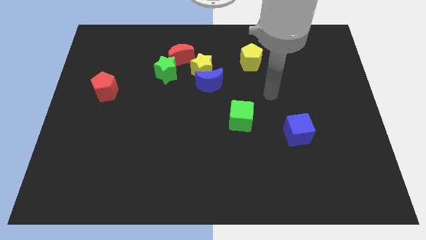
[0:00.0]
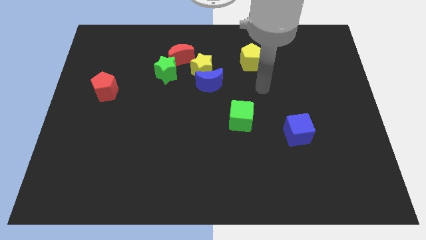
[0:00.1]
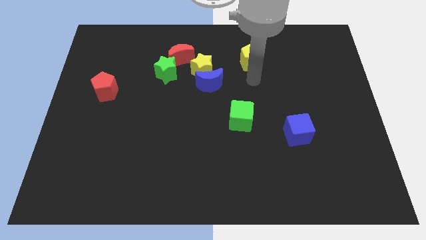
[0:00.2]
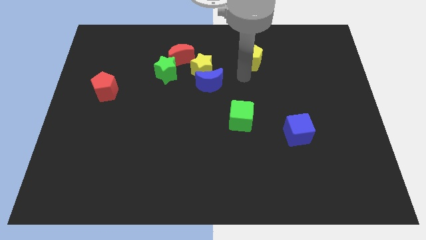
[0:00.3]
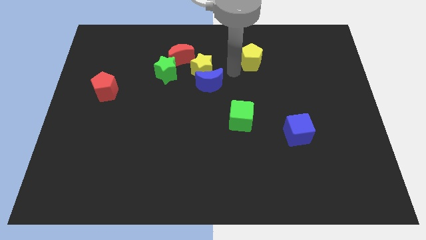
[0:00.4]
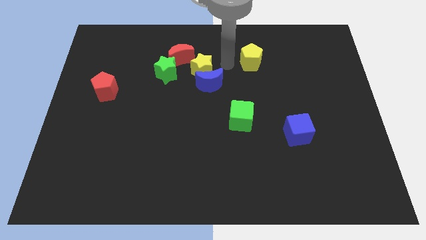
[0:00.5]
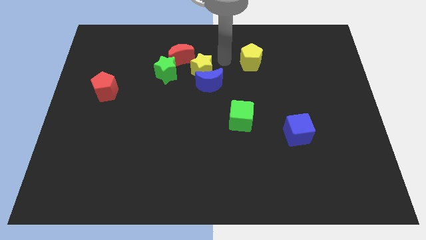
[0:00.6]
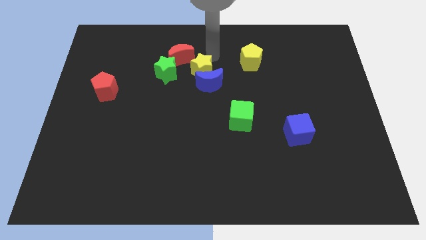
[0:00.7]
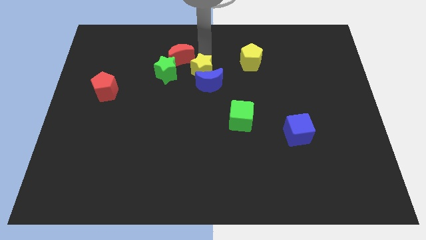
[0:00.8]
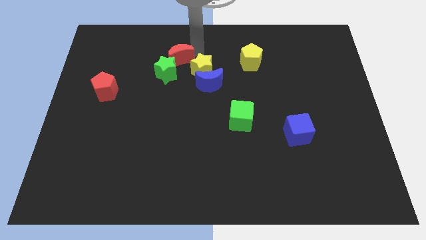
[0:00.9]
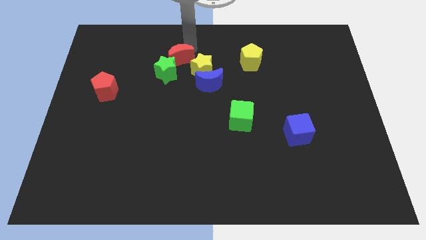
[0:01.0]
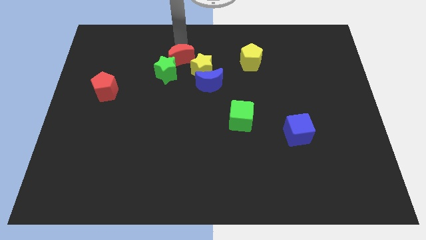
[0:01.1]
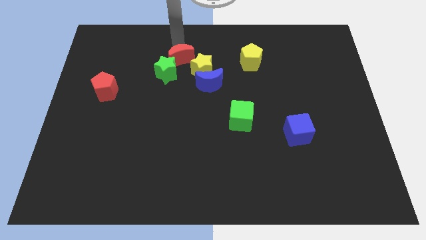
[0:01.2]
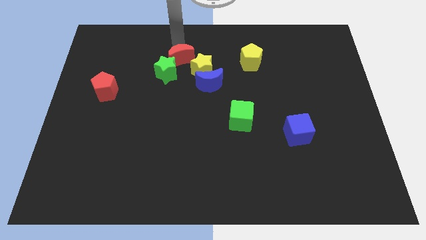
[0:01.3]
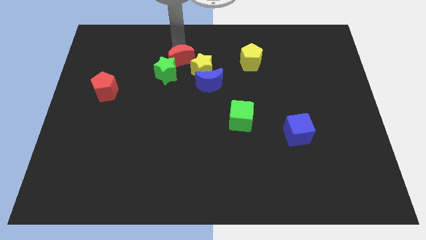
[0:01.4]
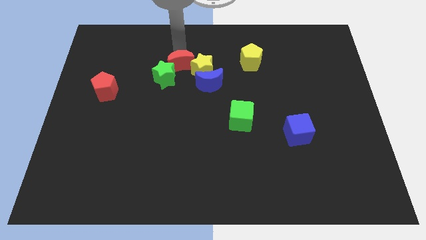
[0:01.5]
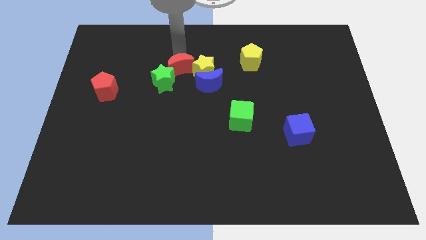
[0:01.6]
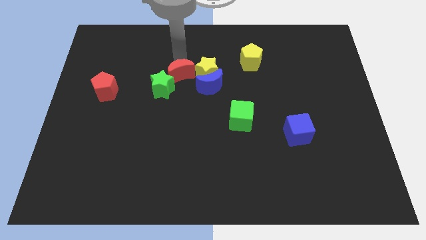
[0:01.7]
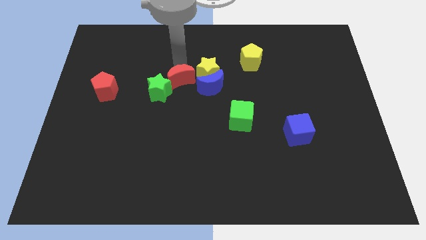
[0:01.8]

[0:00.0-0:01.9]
move the red moon a little downwards

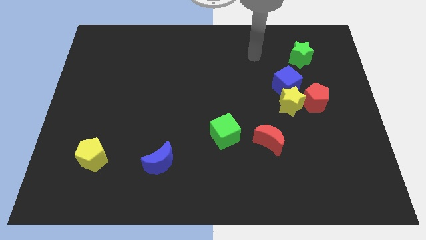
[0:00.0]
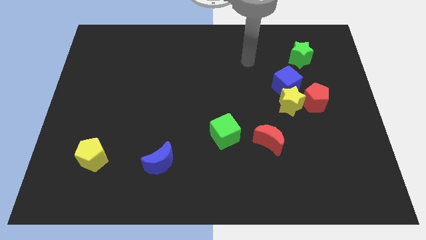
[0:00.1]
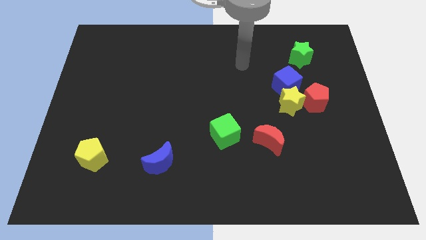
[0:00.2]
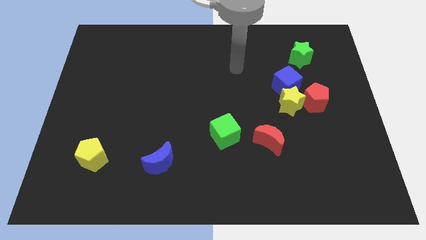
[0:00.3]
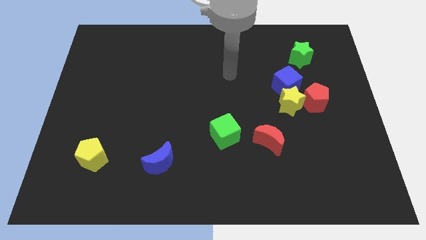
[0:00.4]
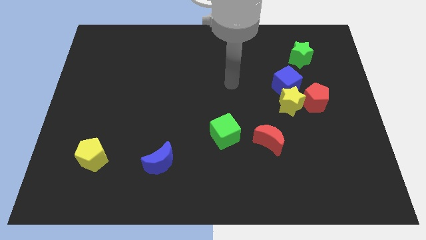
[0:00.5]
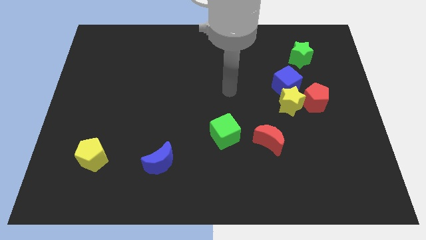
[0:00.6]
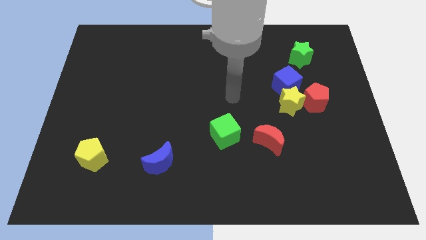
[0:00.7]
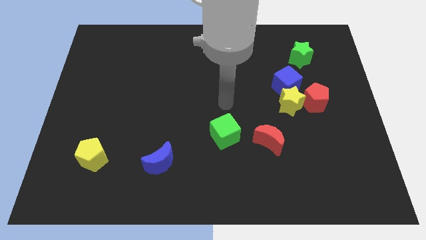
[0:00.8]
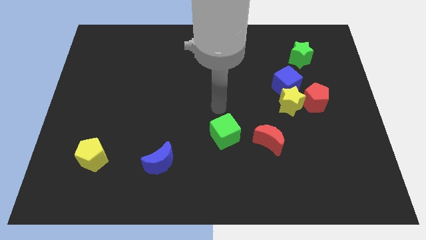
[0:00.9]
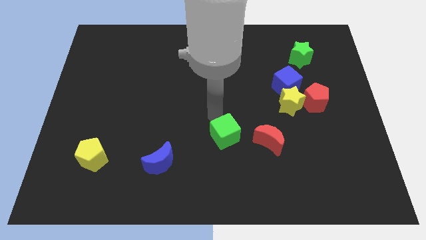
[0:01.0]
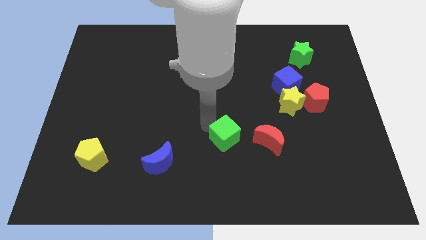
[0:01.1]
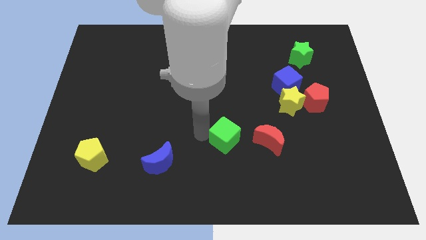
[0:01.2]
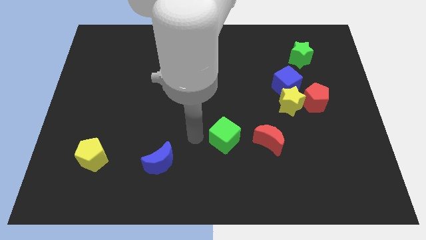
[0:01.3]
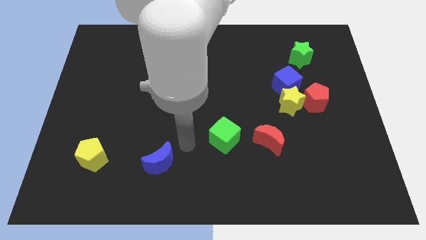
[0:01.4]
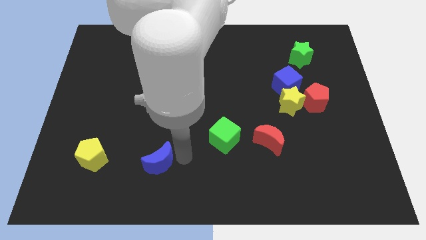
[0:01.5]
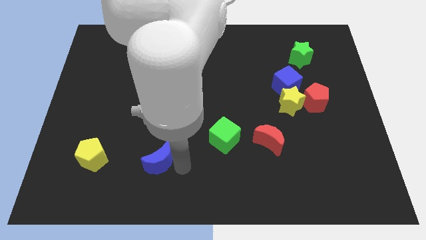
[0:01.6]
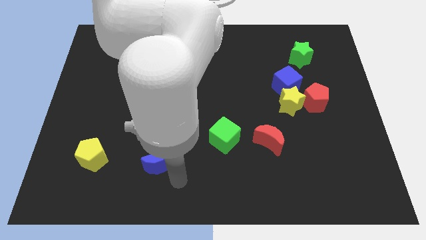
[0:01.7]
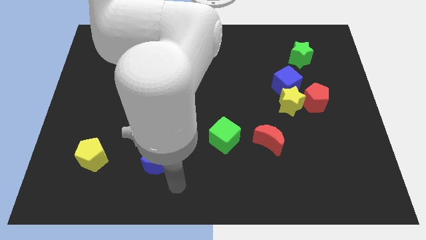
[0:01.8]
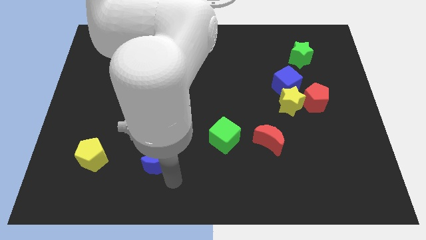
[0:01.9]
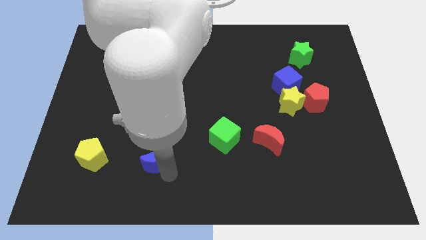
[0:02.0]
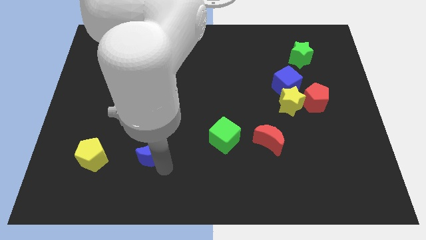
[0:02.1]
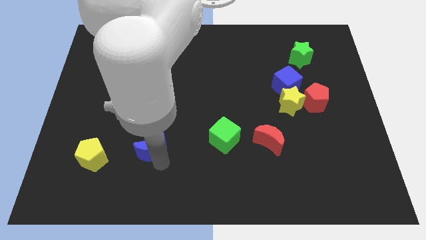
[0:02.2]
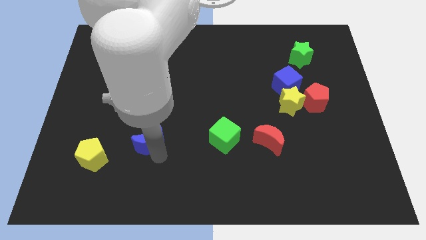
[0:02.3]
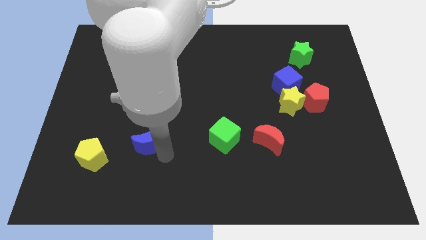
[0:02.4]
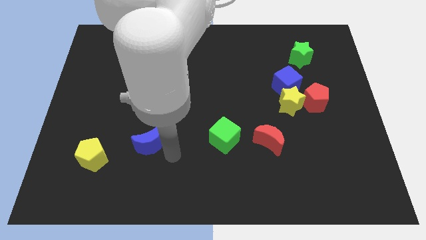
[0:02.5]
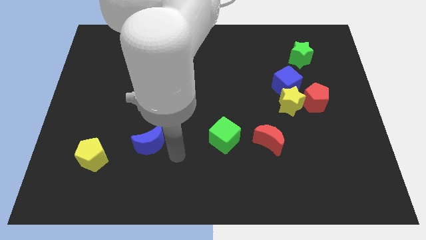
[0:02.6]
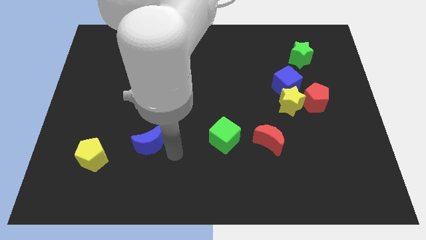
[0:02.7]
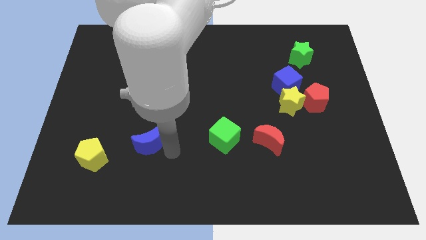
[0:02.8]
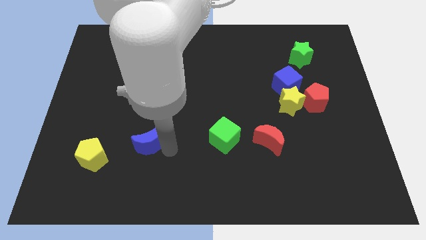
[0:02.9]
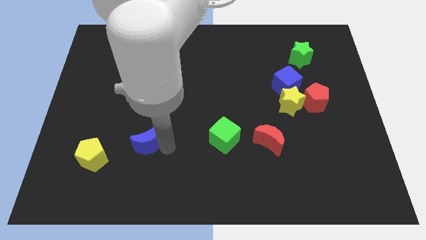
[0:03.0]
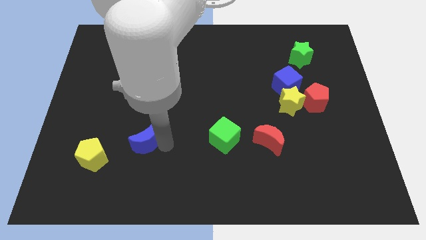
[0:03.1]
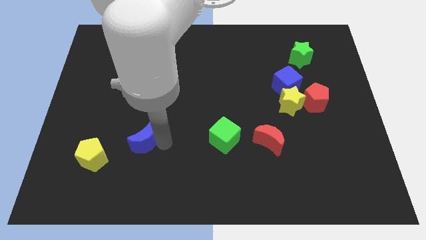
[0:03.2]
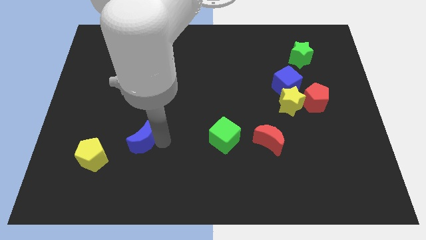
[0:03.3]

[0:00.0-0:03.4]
slightly move the blue moon upwards and then to the left

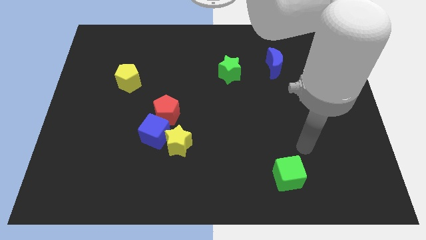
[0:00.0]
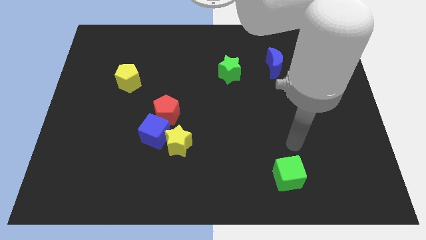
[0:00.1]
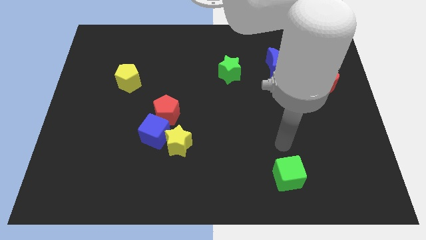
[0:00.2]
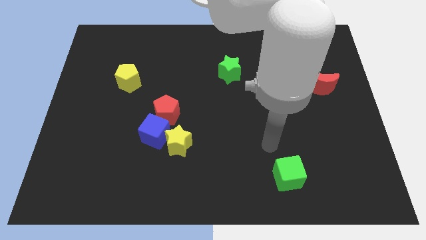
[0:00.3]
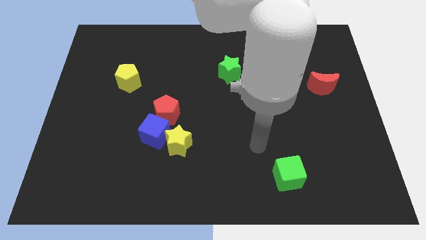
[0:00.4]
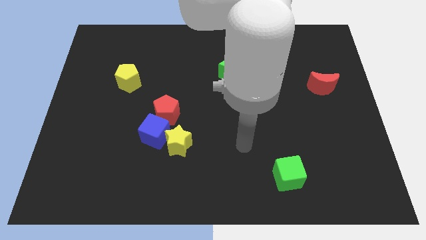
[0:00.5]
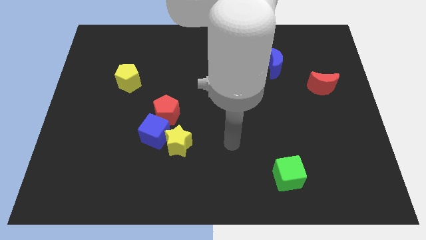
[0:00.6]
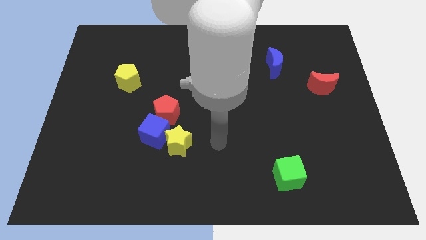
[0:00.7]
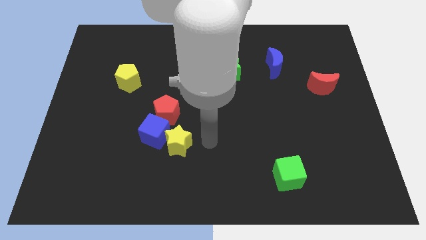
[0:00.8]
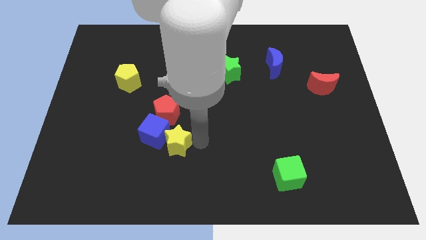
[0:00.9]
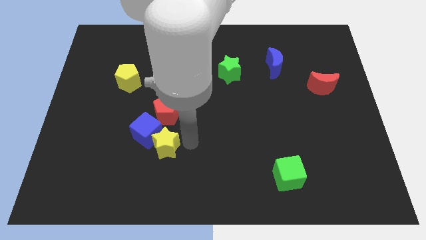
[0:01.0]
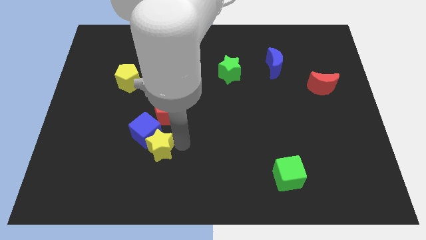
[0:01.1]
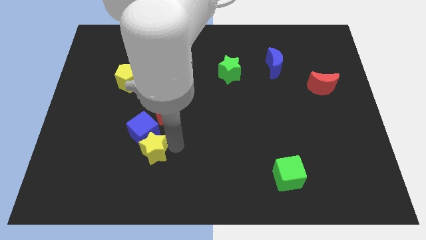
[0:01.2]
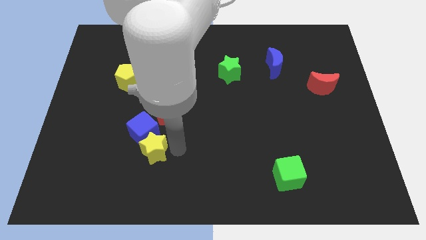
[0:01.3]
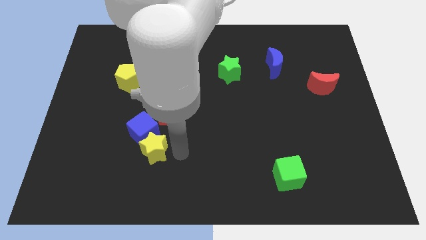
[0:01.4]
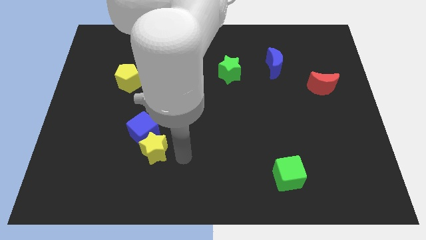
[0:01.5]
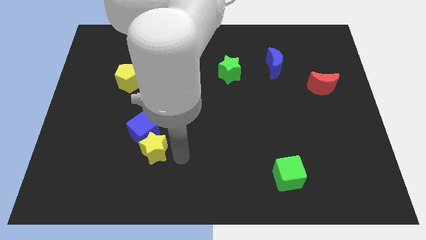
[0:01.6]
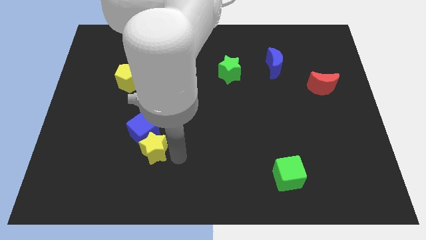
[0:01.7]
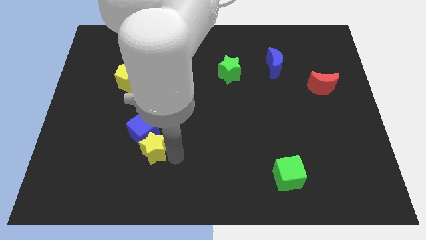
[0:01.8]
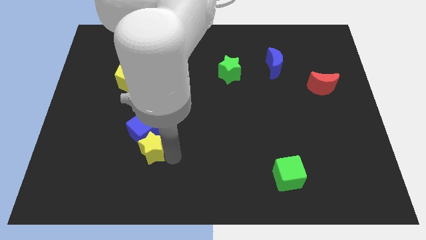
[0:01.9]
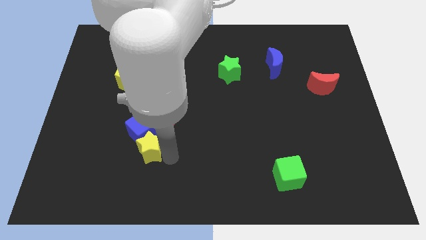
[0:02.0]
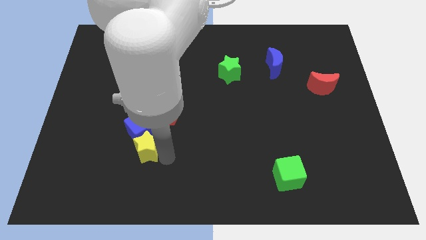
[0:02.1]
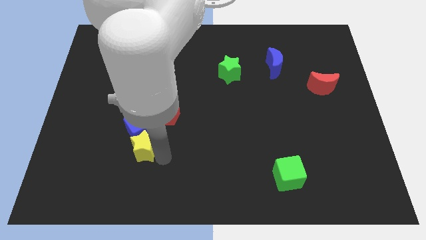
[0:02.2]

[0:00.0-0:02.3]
slide the yellow star left a little bit

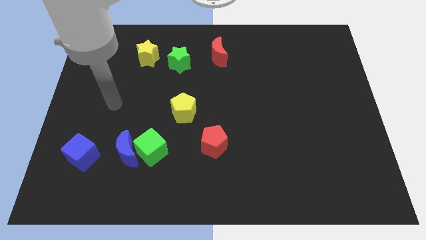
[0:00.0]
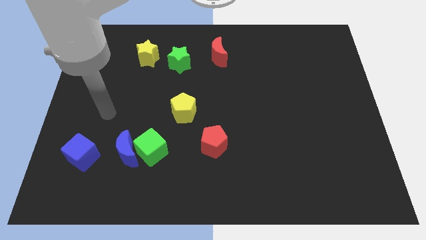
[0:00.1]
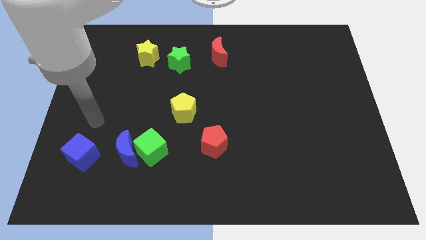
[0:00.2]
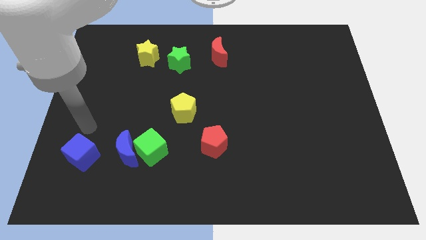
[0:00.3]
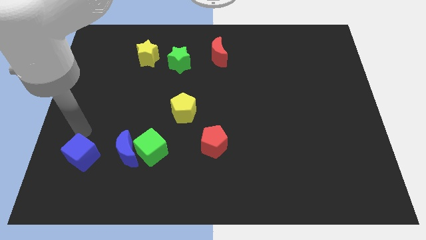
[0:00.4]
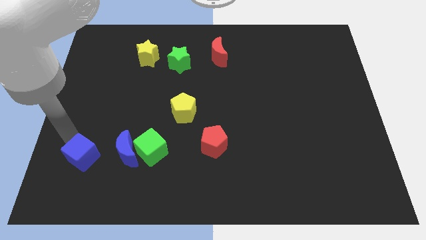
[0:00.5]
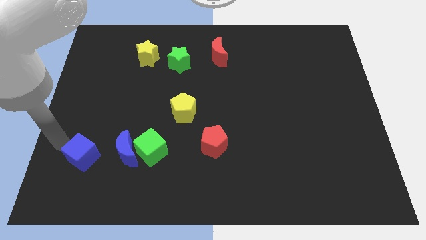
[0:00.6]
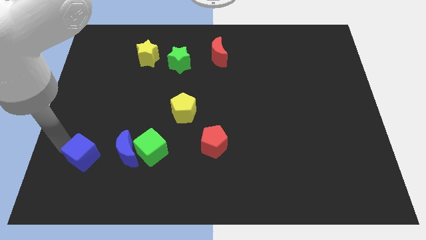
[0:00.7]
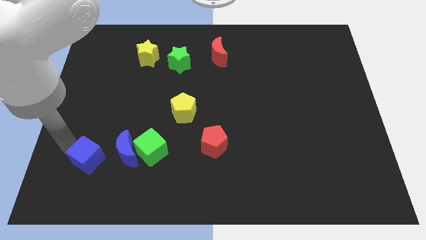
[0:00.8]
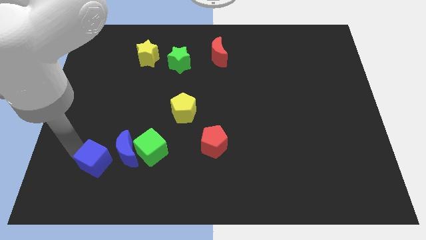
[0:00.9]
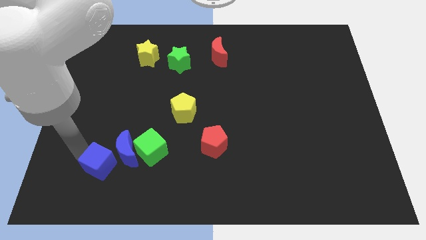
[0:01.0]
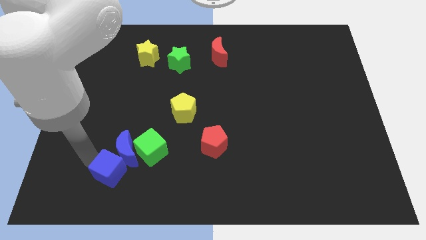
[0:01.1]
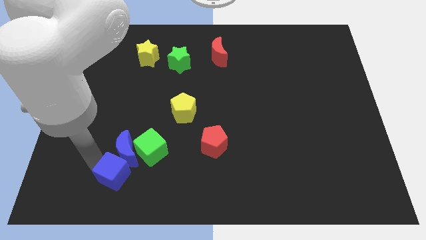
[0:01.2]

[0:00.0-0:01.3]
slide the blue cube right a bit
